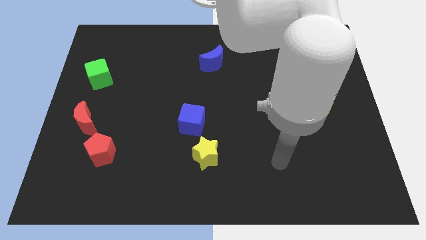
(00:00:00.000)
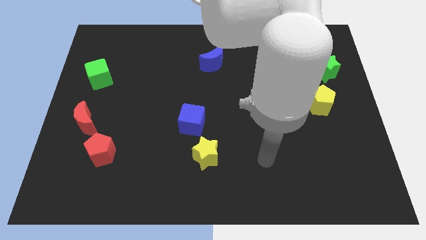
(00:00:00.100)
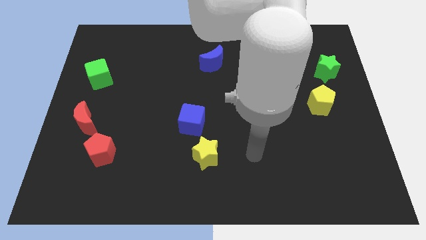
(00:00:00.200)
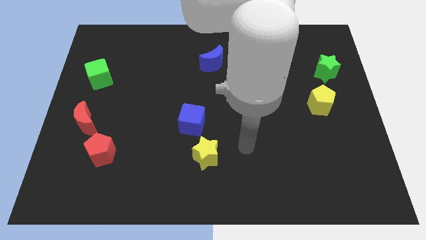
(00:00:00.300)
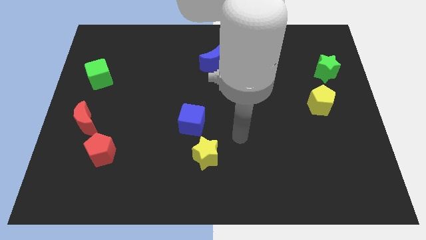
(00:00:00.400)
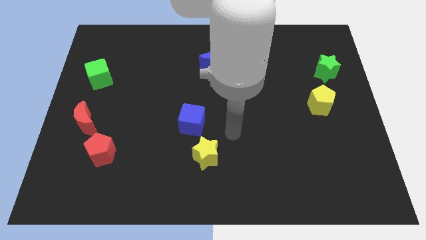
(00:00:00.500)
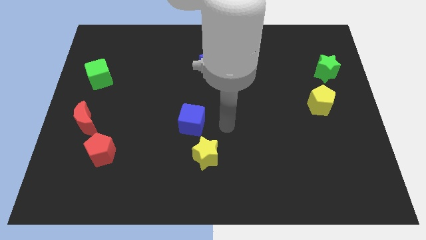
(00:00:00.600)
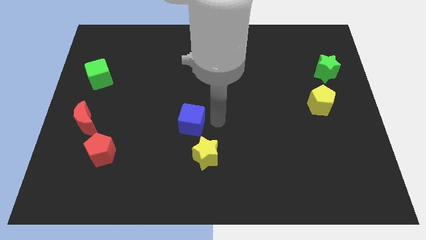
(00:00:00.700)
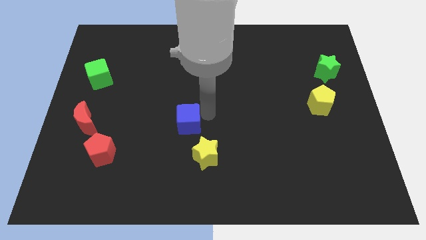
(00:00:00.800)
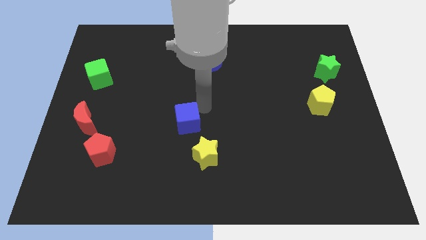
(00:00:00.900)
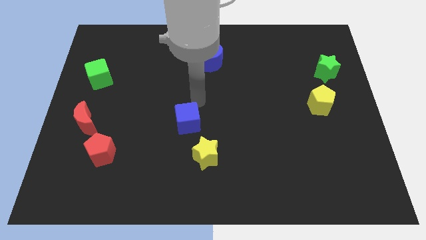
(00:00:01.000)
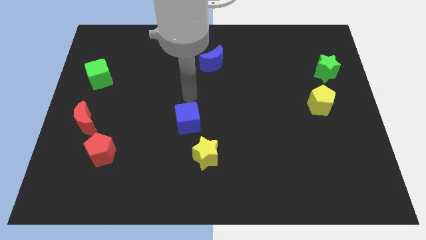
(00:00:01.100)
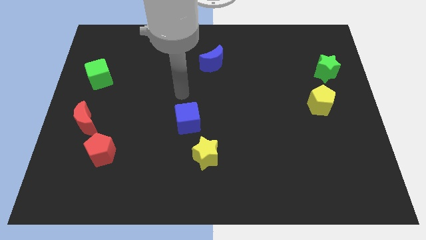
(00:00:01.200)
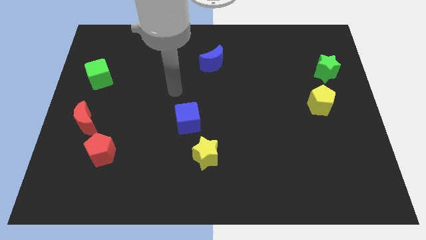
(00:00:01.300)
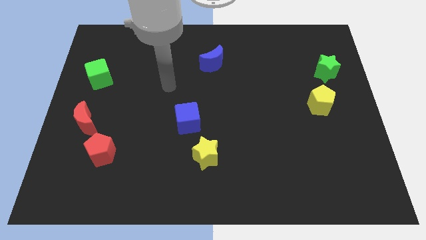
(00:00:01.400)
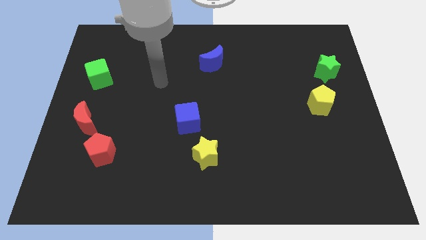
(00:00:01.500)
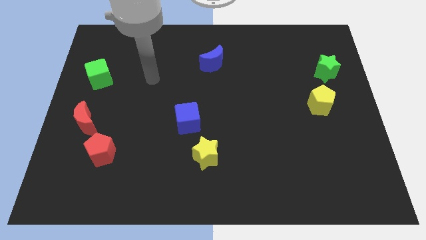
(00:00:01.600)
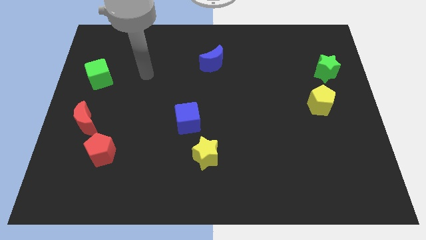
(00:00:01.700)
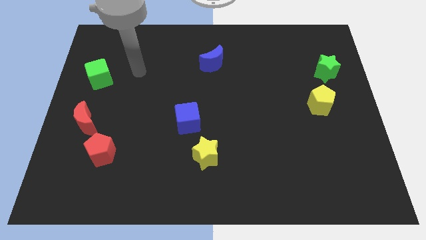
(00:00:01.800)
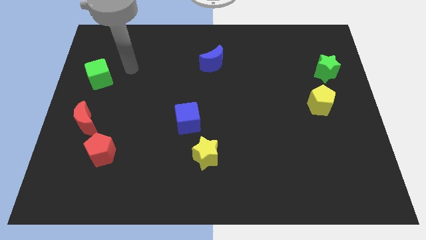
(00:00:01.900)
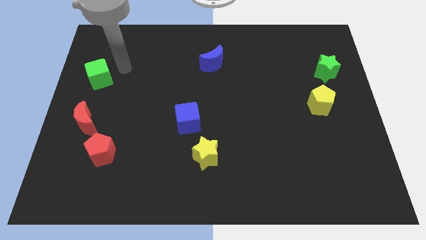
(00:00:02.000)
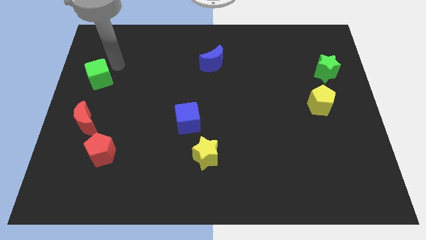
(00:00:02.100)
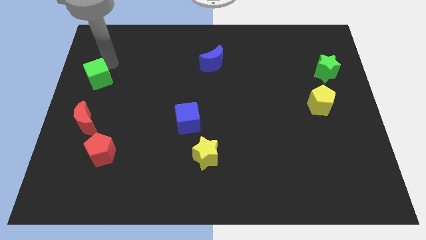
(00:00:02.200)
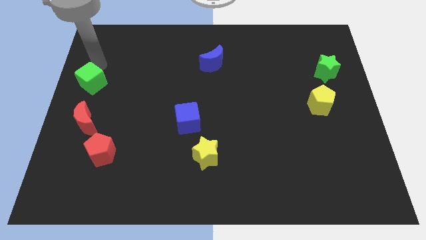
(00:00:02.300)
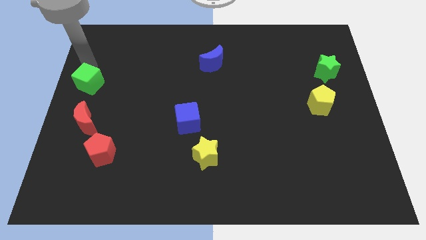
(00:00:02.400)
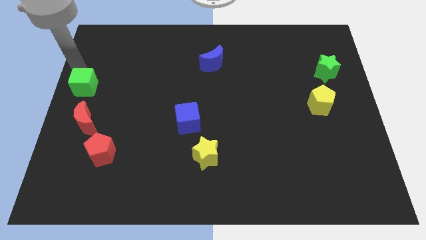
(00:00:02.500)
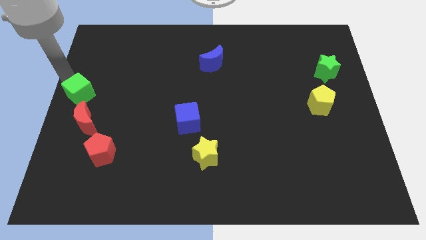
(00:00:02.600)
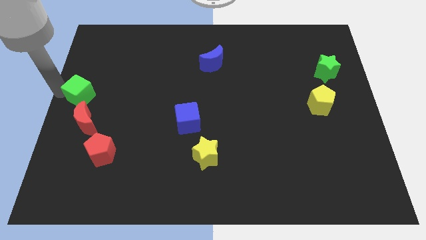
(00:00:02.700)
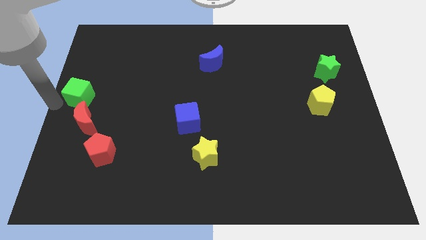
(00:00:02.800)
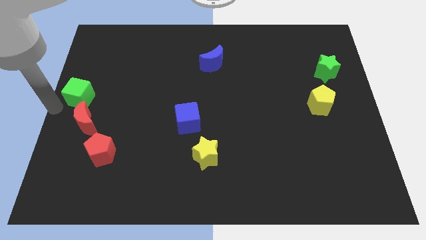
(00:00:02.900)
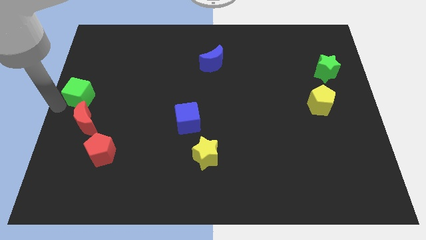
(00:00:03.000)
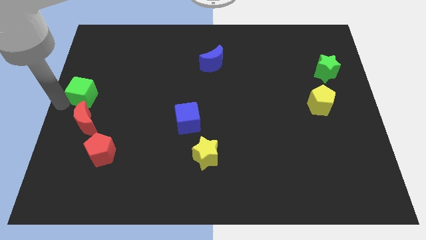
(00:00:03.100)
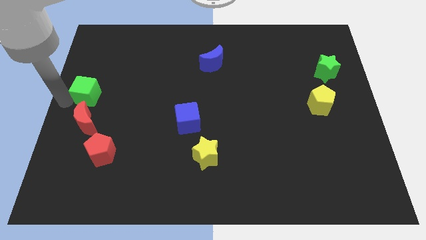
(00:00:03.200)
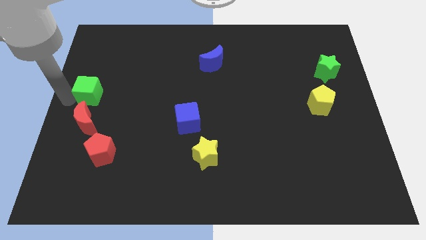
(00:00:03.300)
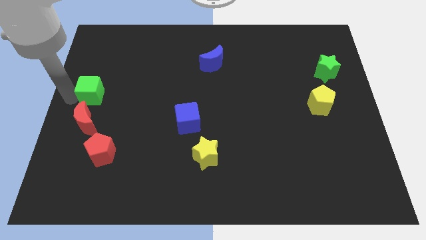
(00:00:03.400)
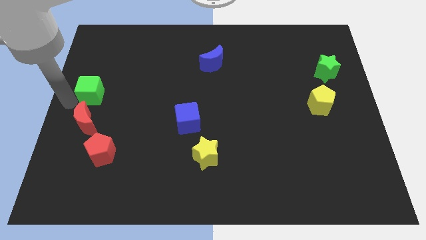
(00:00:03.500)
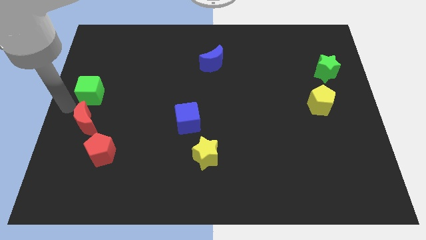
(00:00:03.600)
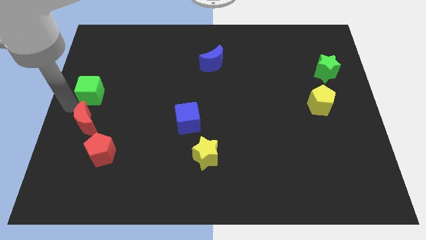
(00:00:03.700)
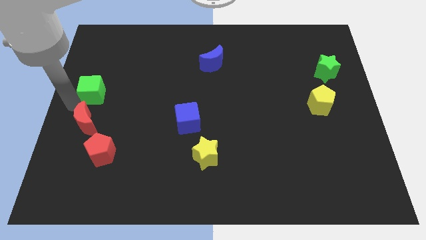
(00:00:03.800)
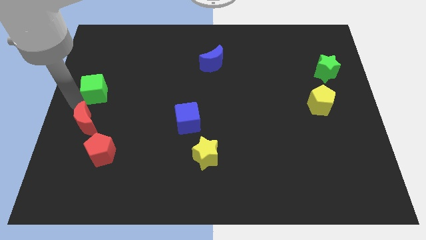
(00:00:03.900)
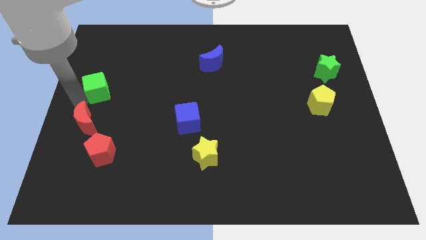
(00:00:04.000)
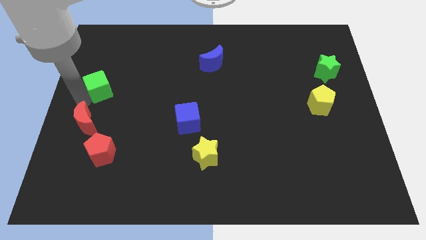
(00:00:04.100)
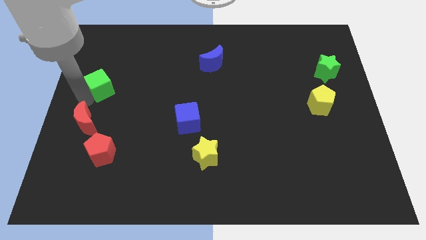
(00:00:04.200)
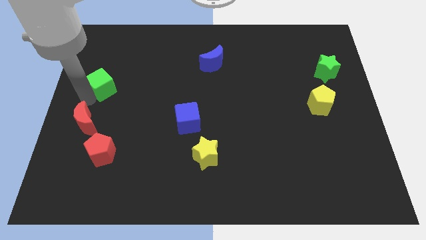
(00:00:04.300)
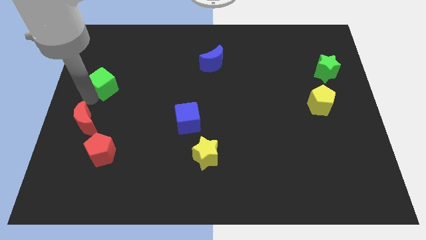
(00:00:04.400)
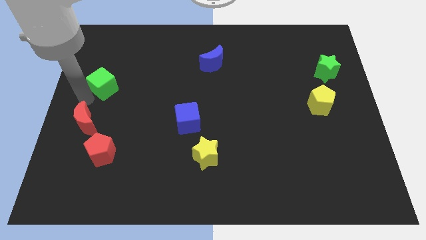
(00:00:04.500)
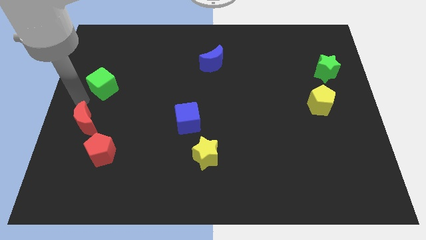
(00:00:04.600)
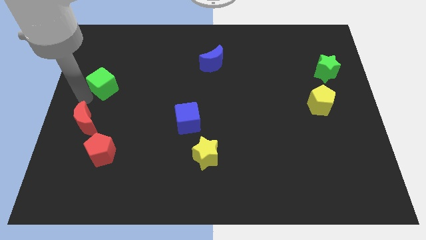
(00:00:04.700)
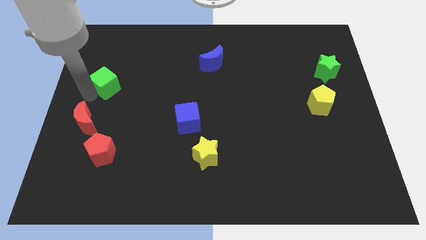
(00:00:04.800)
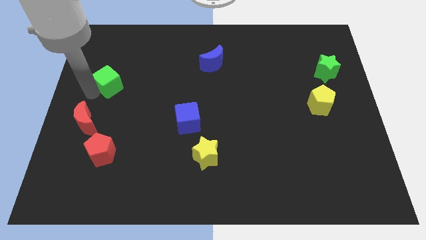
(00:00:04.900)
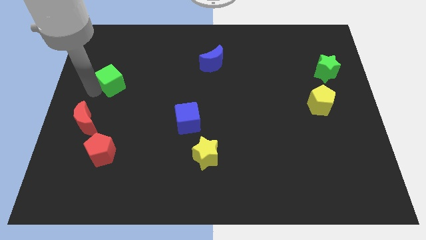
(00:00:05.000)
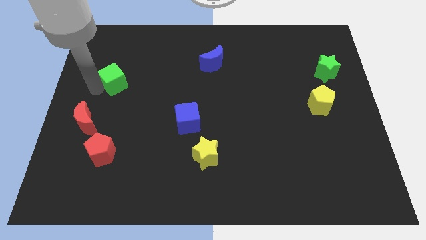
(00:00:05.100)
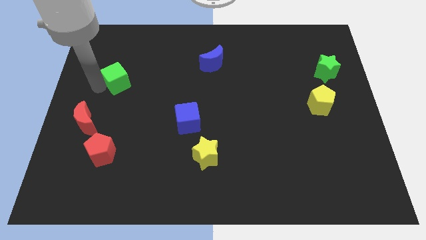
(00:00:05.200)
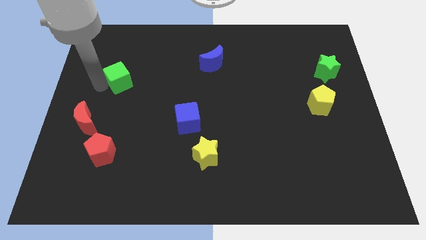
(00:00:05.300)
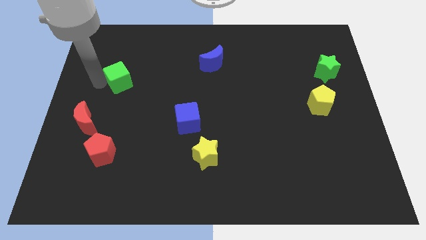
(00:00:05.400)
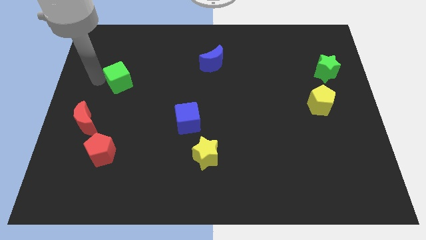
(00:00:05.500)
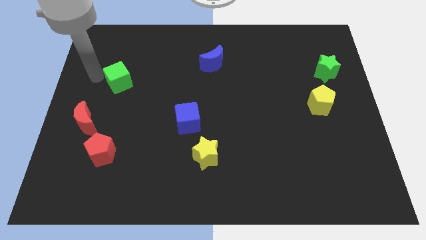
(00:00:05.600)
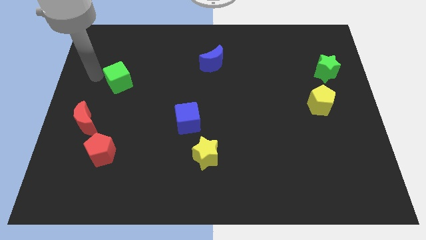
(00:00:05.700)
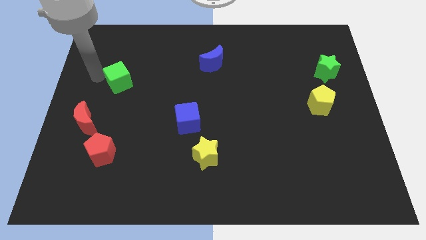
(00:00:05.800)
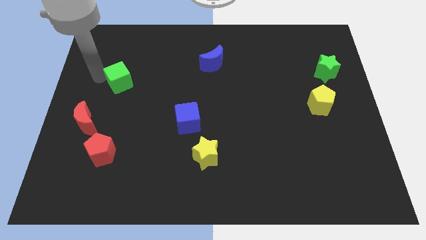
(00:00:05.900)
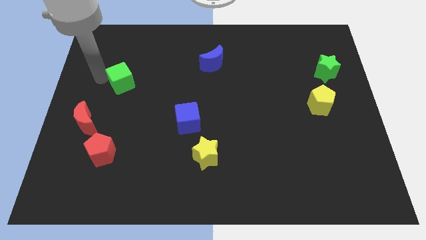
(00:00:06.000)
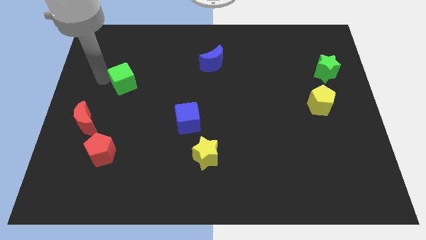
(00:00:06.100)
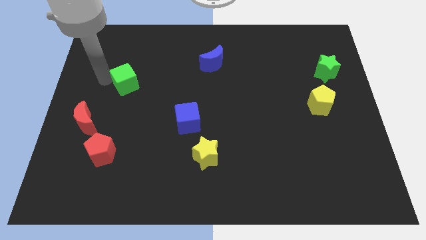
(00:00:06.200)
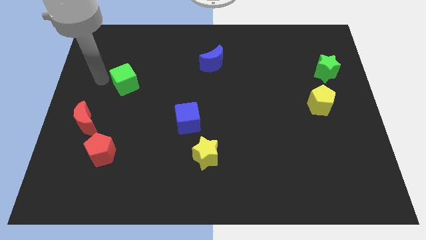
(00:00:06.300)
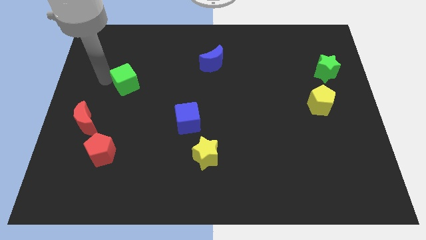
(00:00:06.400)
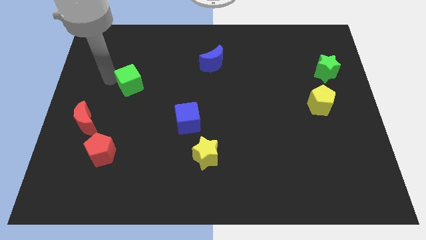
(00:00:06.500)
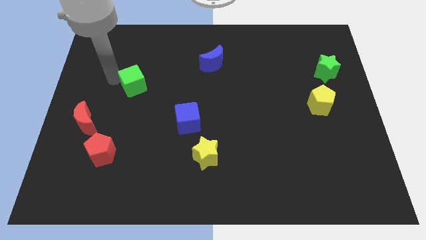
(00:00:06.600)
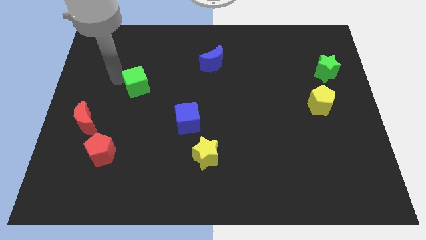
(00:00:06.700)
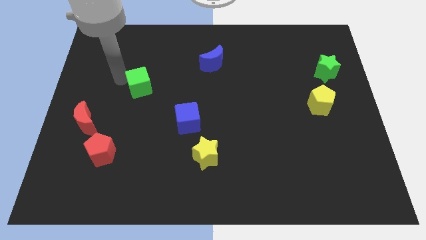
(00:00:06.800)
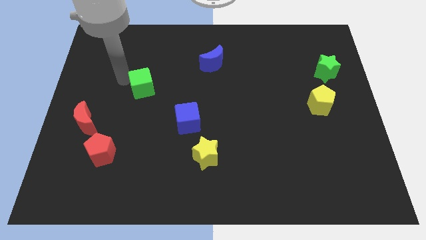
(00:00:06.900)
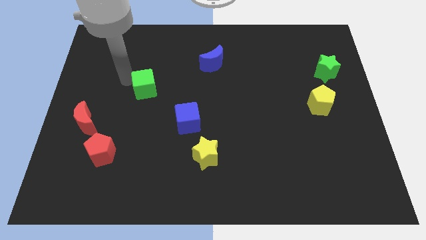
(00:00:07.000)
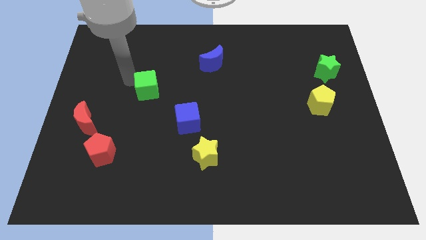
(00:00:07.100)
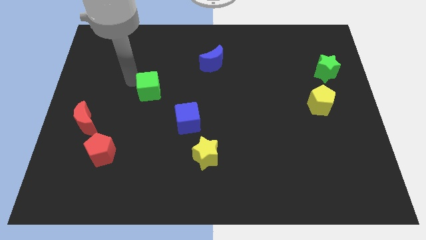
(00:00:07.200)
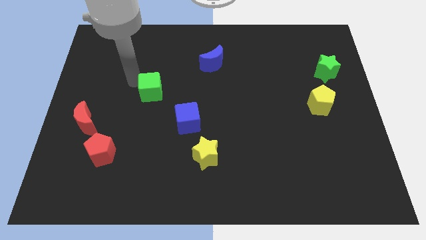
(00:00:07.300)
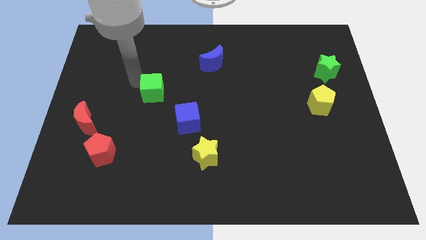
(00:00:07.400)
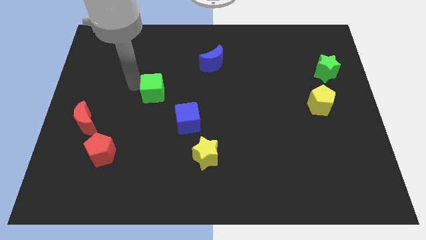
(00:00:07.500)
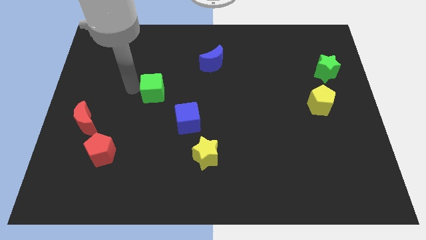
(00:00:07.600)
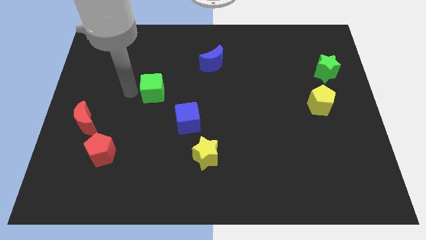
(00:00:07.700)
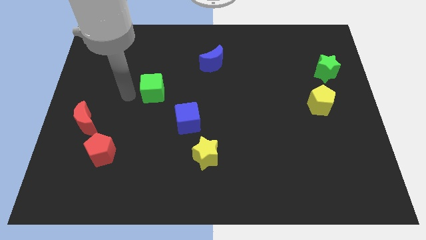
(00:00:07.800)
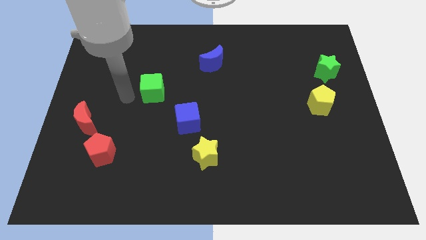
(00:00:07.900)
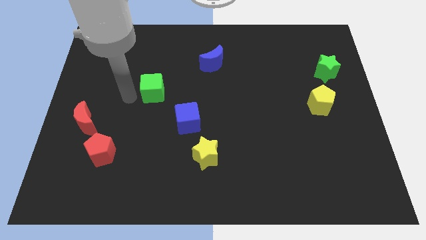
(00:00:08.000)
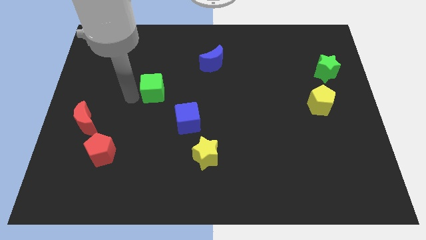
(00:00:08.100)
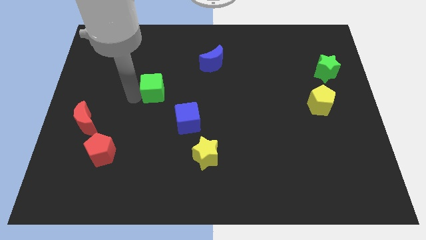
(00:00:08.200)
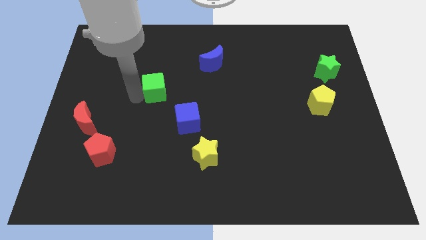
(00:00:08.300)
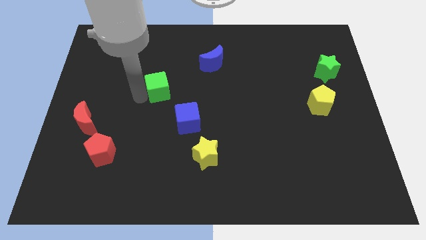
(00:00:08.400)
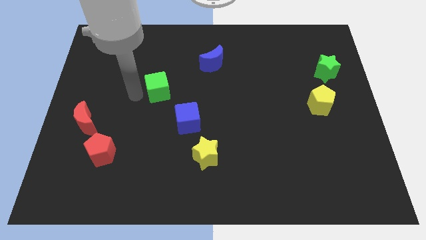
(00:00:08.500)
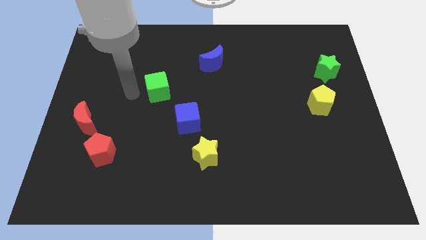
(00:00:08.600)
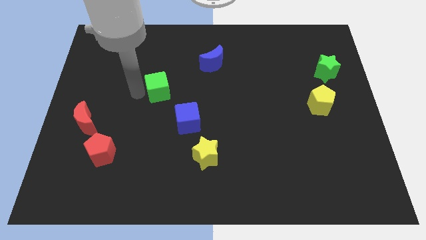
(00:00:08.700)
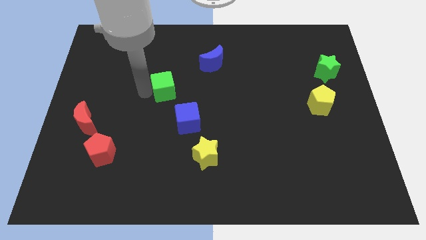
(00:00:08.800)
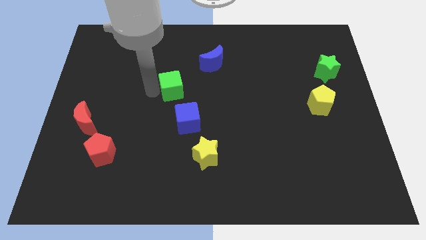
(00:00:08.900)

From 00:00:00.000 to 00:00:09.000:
put the green cube to the top side of the blue cube
